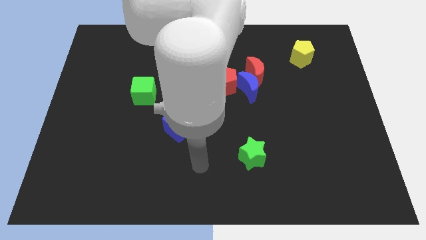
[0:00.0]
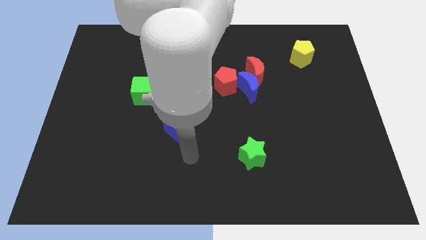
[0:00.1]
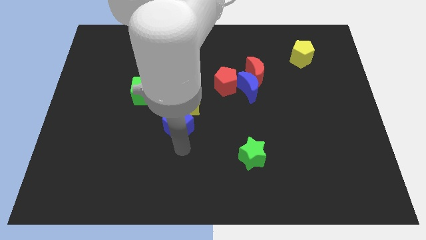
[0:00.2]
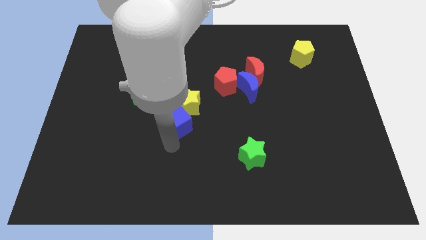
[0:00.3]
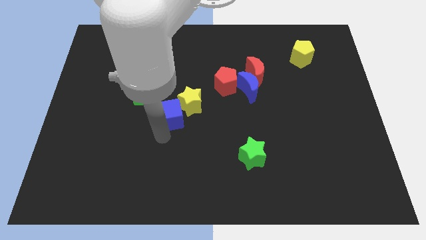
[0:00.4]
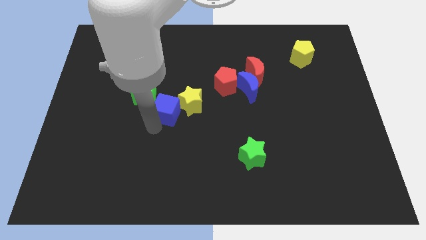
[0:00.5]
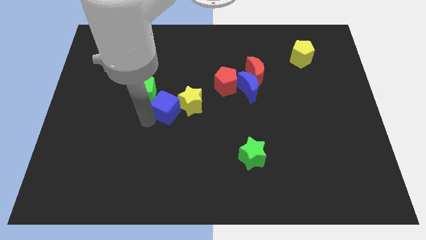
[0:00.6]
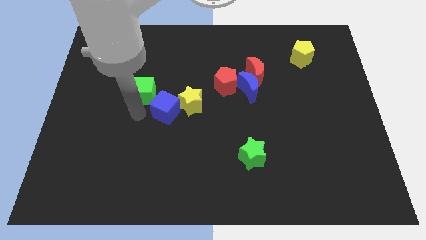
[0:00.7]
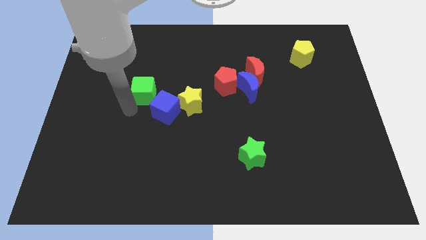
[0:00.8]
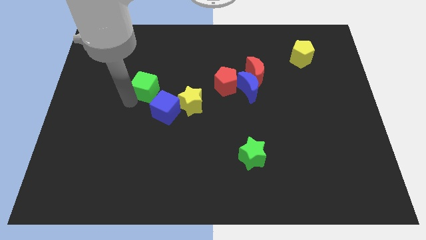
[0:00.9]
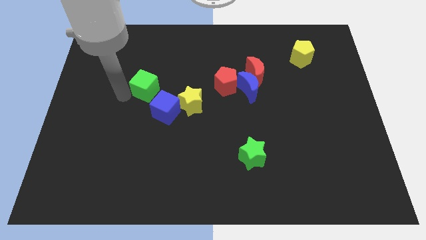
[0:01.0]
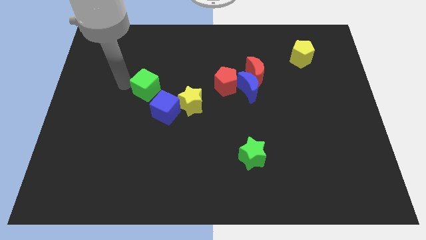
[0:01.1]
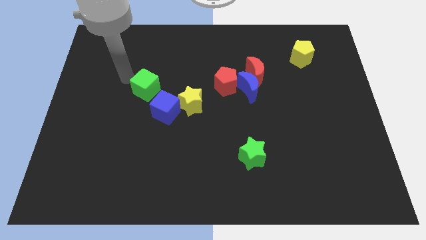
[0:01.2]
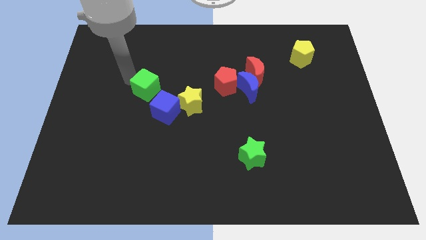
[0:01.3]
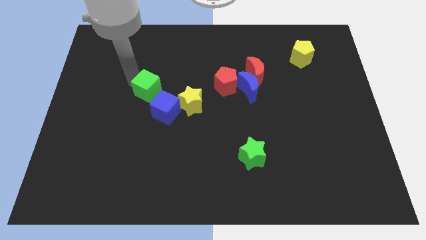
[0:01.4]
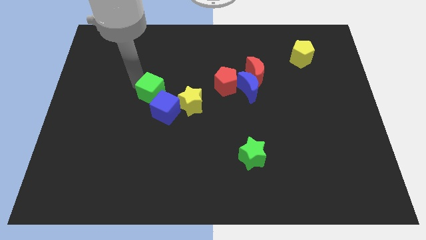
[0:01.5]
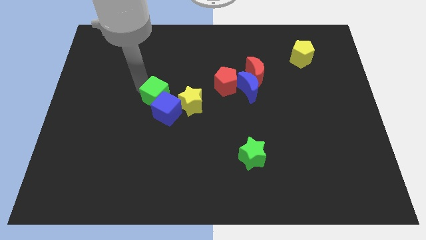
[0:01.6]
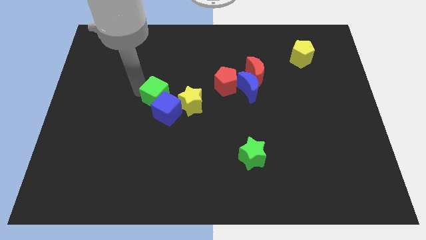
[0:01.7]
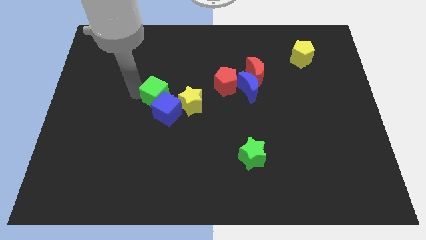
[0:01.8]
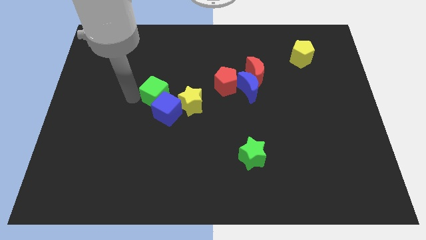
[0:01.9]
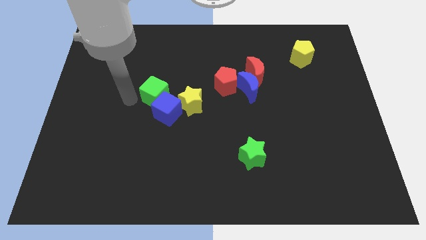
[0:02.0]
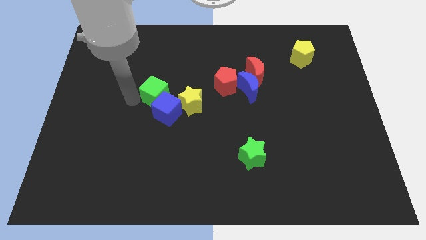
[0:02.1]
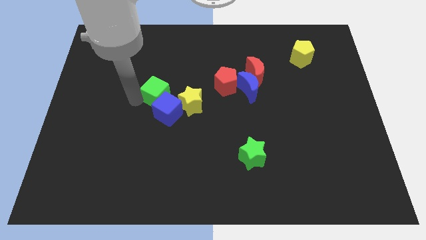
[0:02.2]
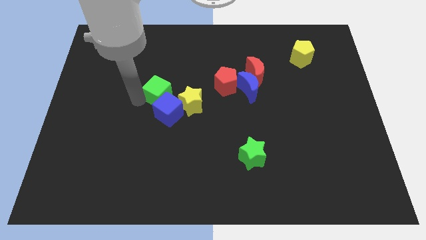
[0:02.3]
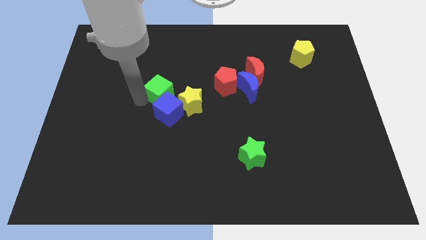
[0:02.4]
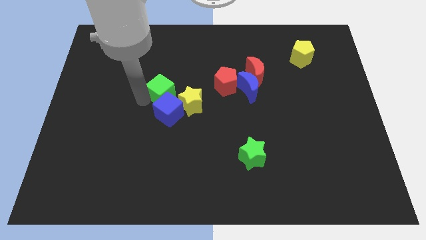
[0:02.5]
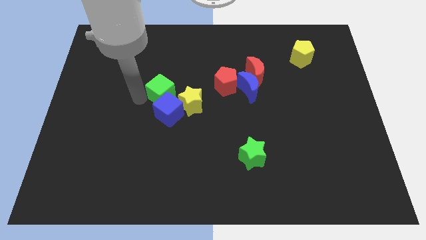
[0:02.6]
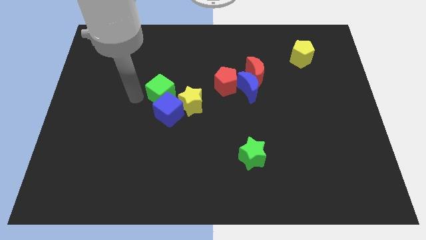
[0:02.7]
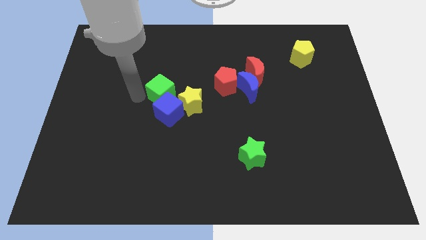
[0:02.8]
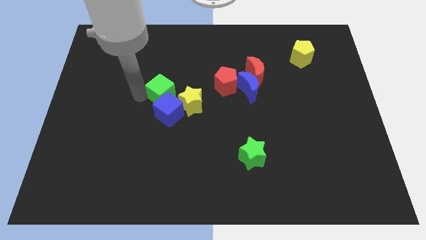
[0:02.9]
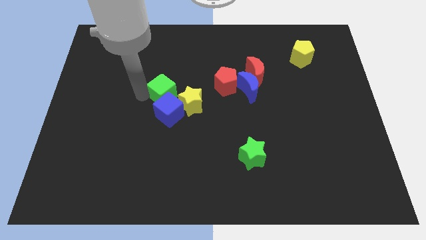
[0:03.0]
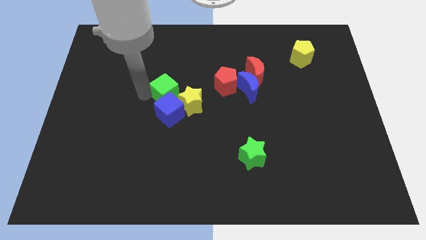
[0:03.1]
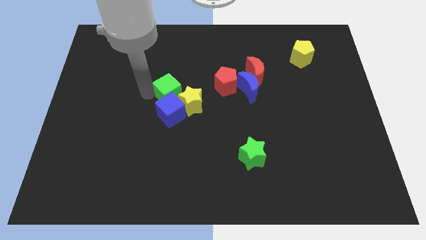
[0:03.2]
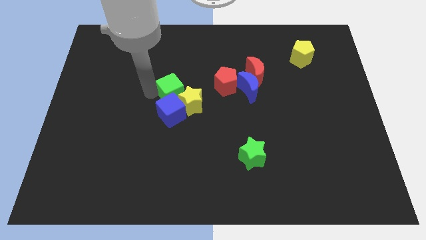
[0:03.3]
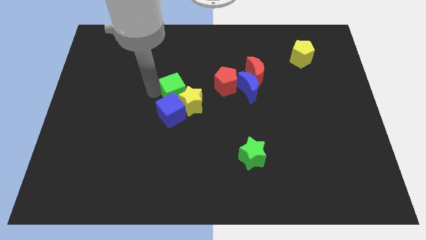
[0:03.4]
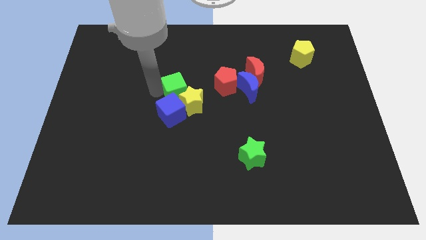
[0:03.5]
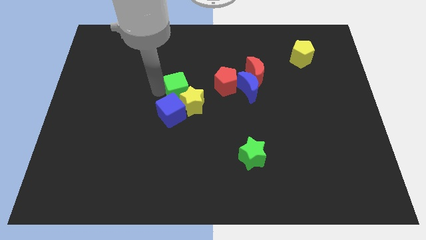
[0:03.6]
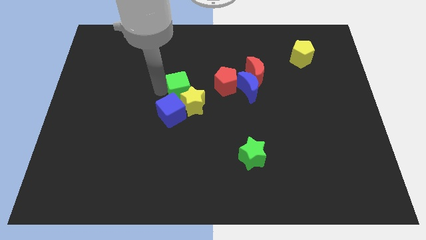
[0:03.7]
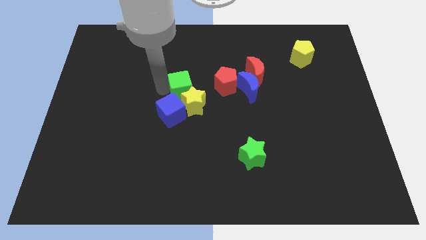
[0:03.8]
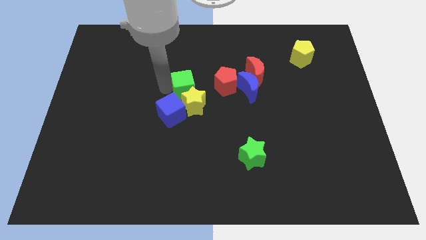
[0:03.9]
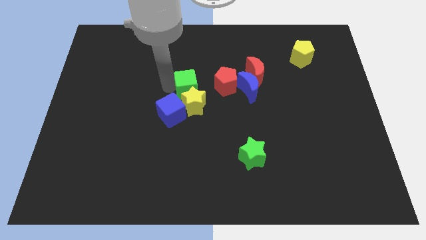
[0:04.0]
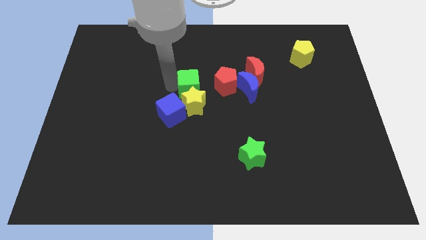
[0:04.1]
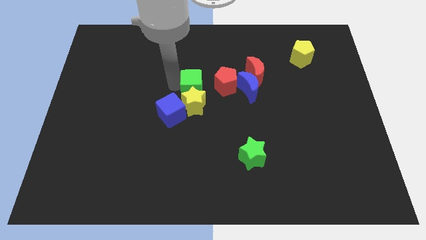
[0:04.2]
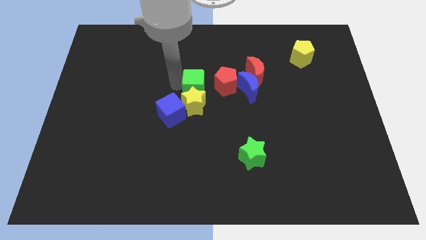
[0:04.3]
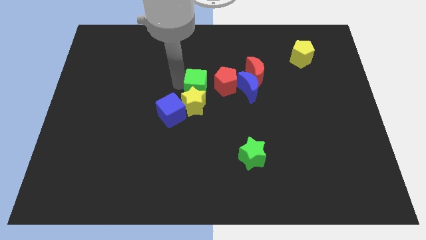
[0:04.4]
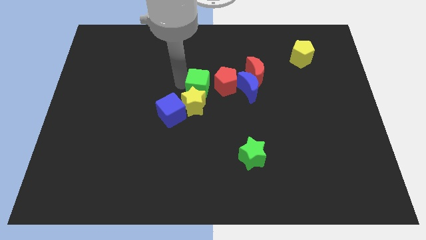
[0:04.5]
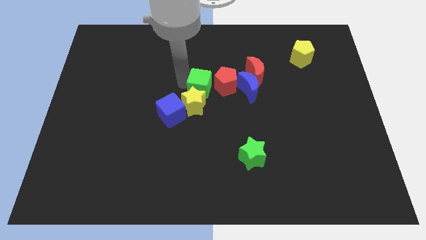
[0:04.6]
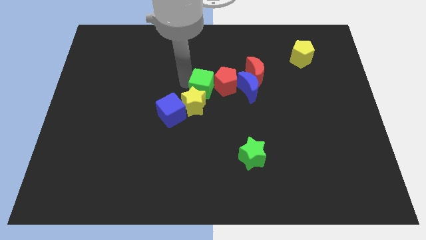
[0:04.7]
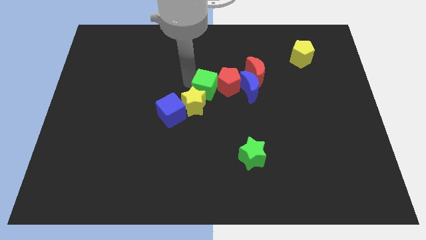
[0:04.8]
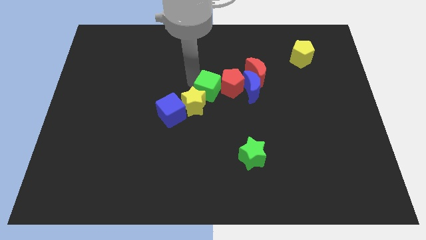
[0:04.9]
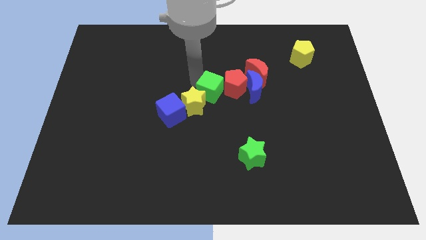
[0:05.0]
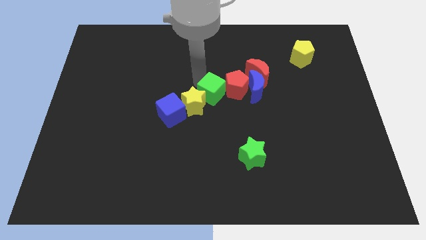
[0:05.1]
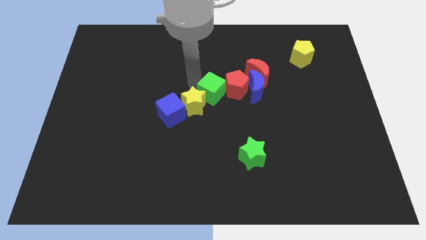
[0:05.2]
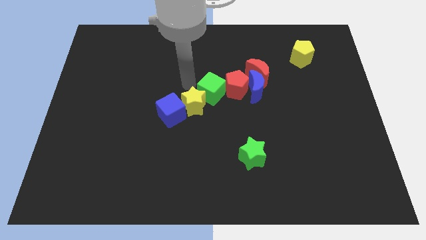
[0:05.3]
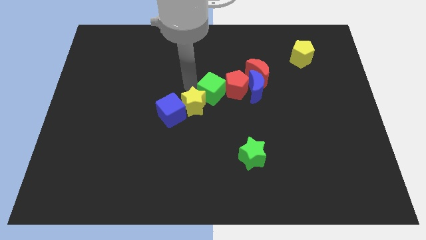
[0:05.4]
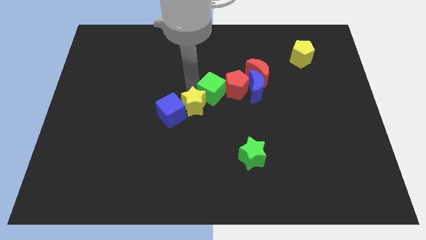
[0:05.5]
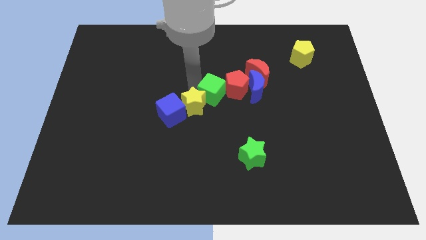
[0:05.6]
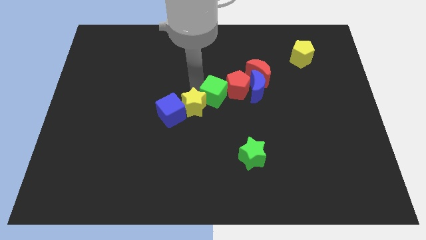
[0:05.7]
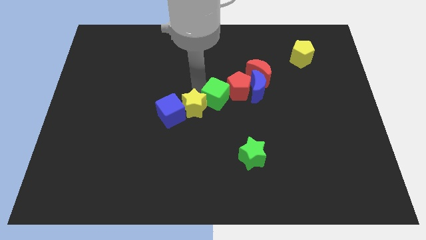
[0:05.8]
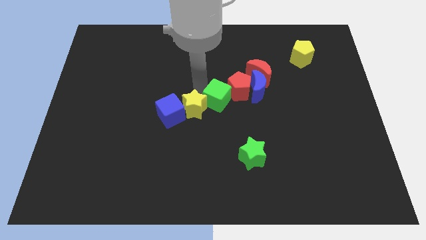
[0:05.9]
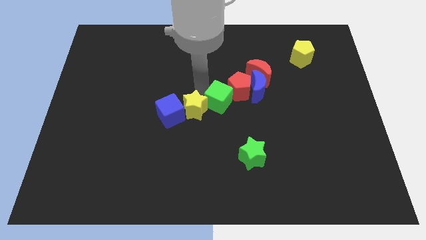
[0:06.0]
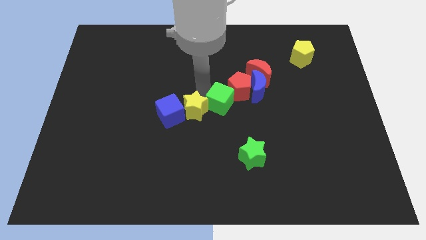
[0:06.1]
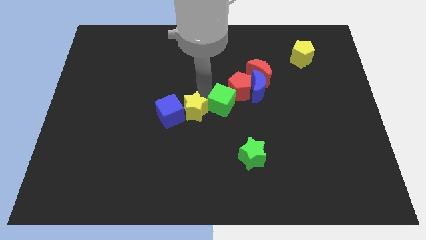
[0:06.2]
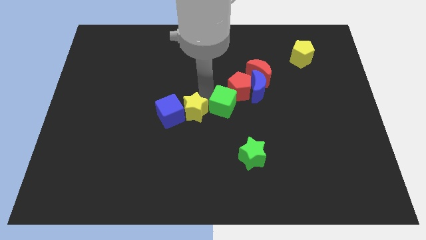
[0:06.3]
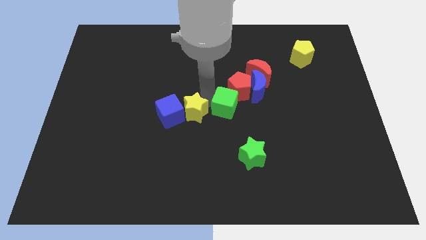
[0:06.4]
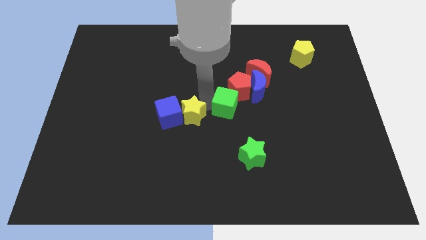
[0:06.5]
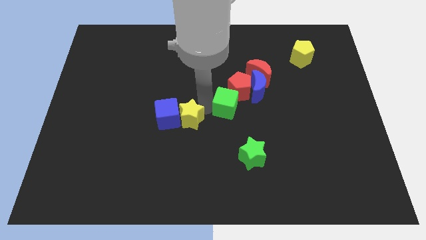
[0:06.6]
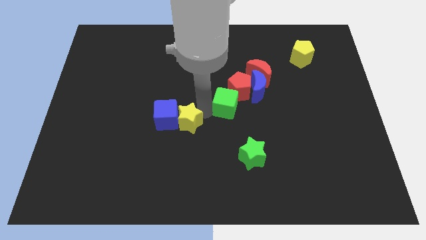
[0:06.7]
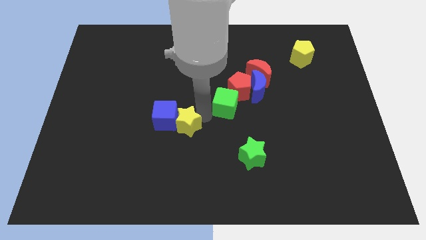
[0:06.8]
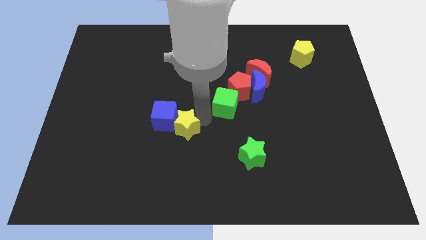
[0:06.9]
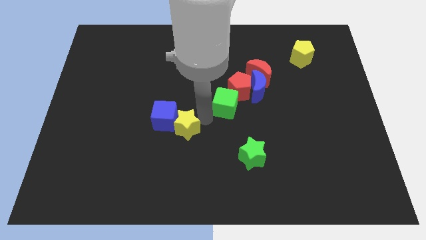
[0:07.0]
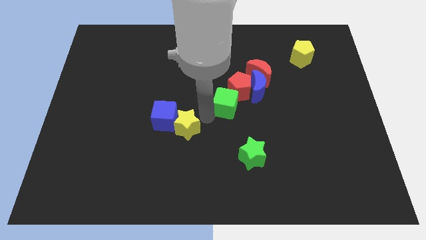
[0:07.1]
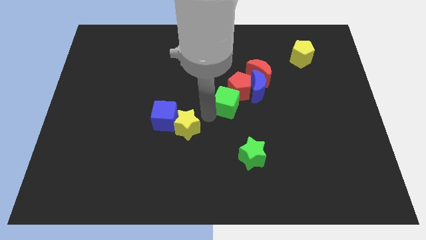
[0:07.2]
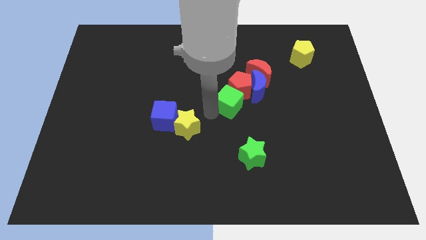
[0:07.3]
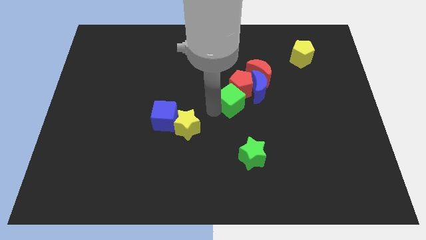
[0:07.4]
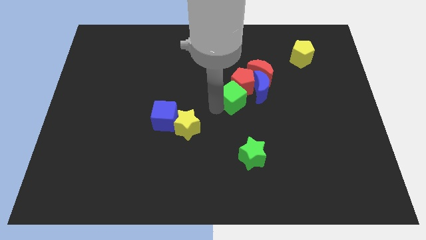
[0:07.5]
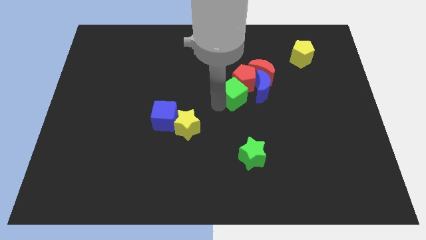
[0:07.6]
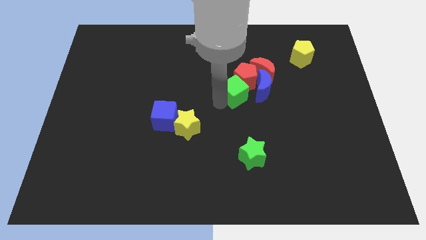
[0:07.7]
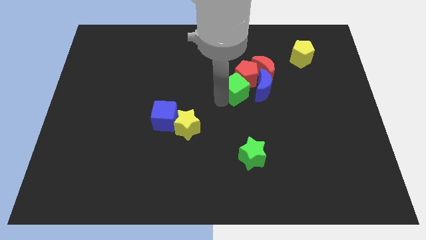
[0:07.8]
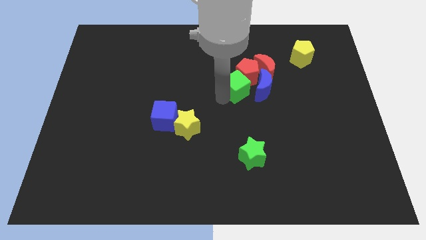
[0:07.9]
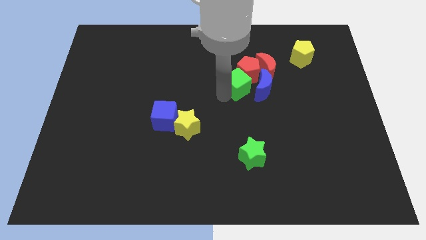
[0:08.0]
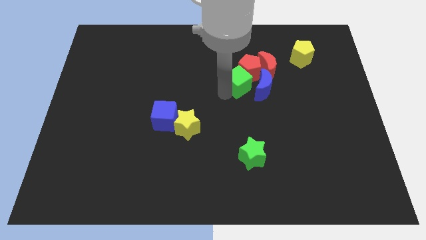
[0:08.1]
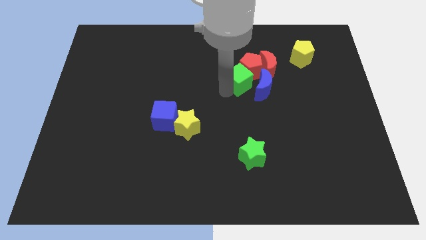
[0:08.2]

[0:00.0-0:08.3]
move the green cube close to the blue moon
